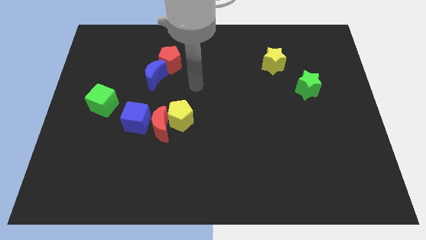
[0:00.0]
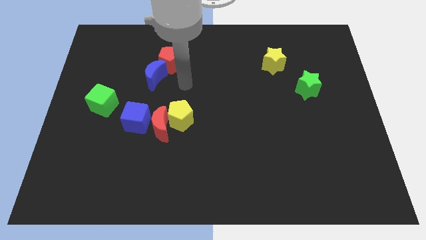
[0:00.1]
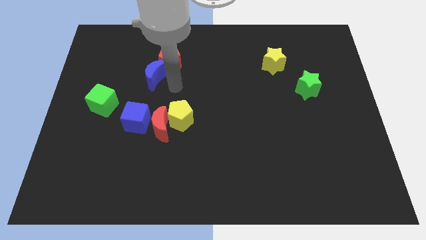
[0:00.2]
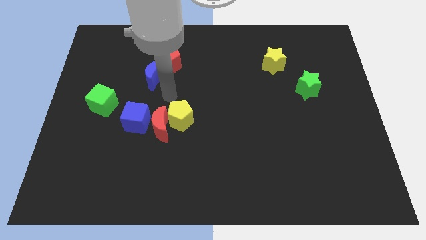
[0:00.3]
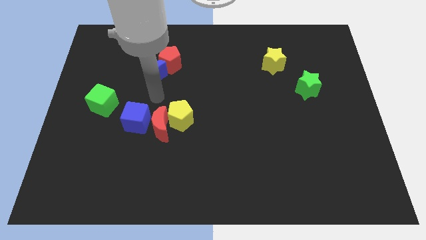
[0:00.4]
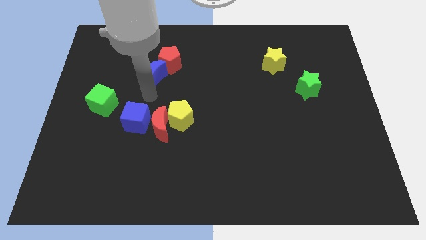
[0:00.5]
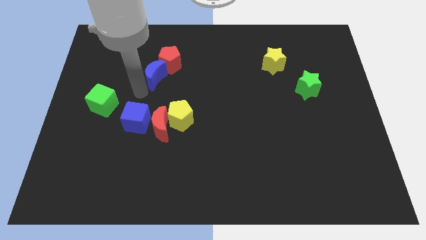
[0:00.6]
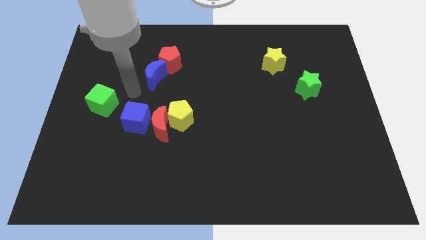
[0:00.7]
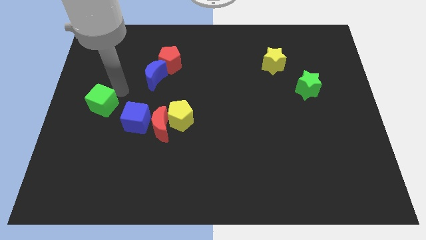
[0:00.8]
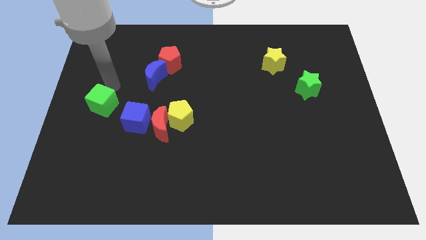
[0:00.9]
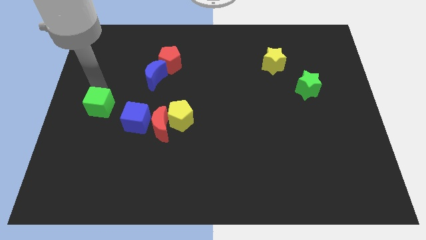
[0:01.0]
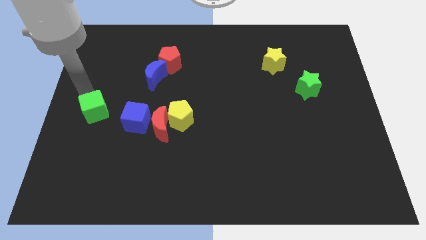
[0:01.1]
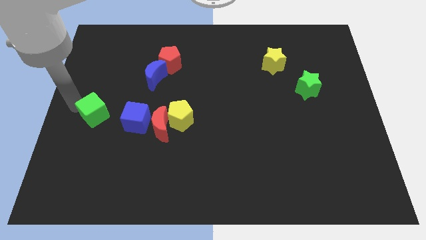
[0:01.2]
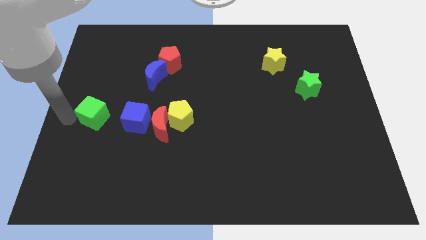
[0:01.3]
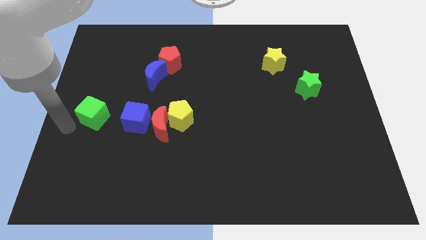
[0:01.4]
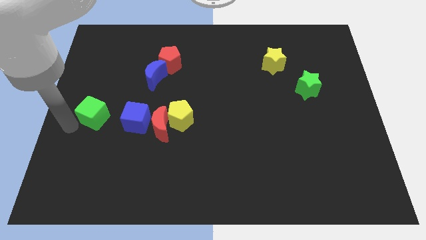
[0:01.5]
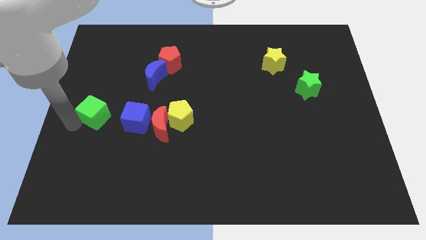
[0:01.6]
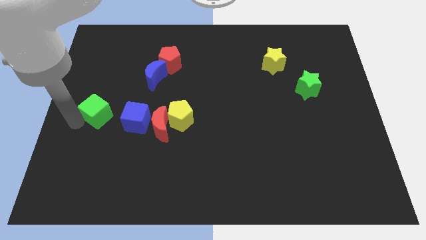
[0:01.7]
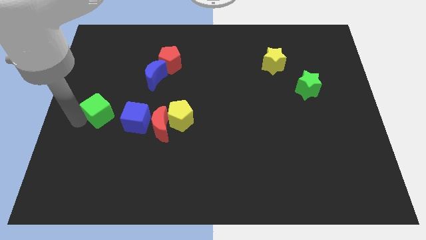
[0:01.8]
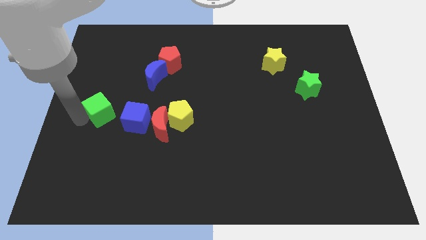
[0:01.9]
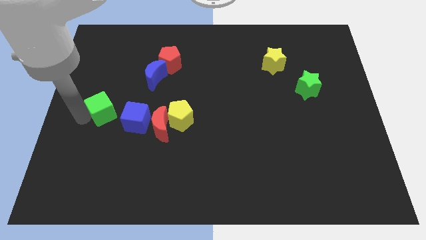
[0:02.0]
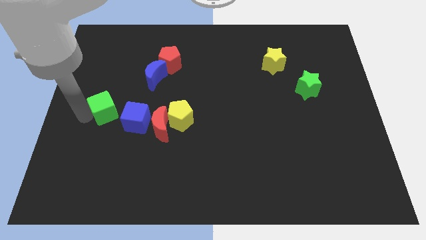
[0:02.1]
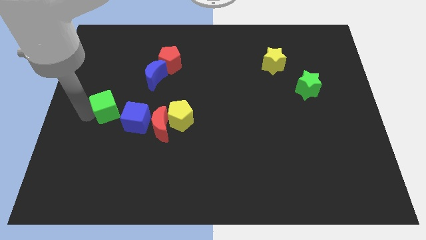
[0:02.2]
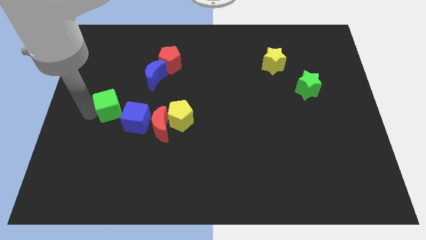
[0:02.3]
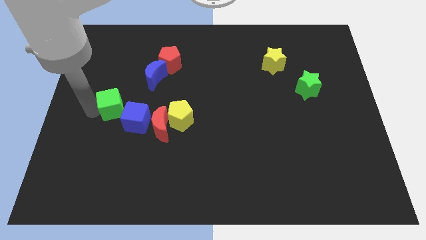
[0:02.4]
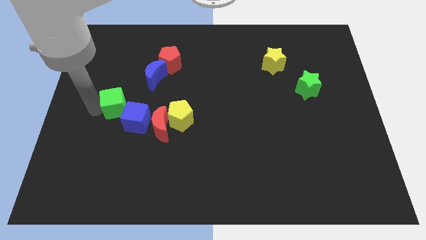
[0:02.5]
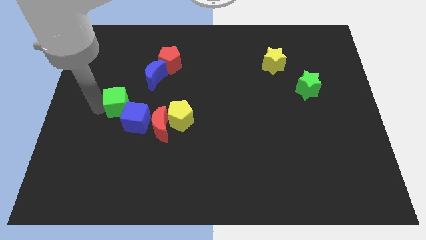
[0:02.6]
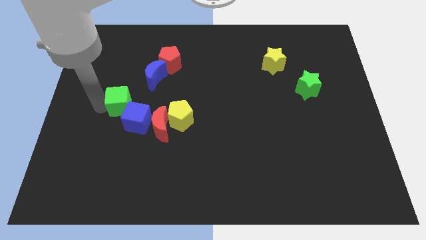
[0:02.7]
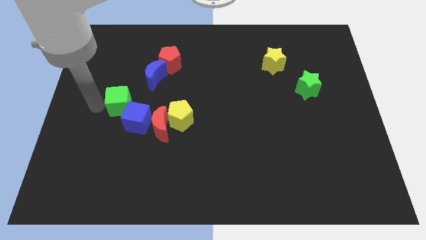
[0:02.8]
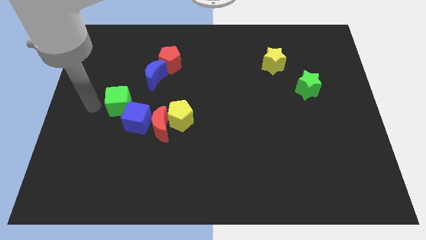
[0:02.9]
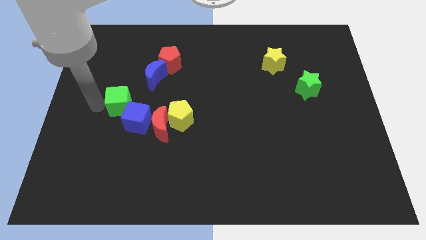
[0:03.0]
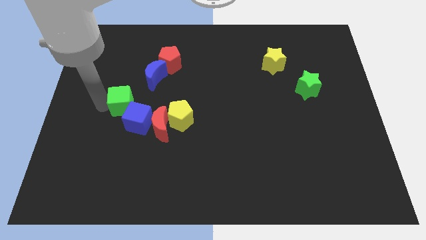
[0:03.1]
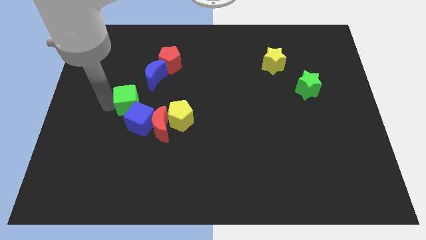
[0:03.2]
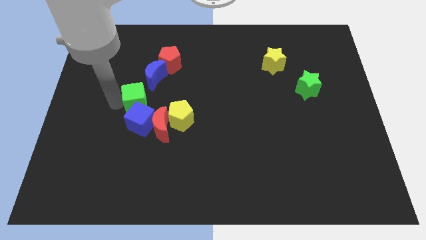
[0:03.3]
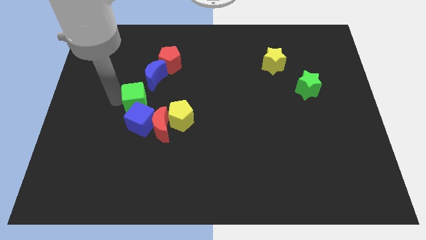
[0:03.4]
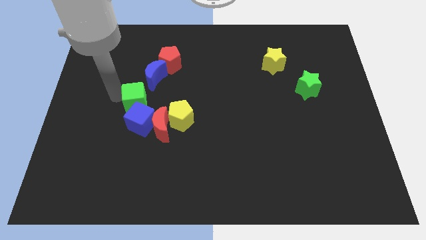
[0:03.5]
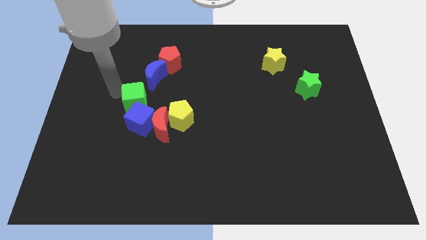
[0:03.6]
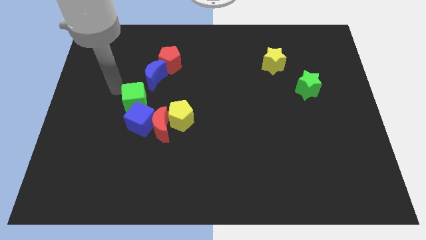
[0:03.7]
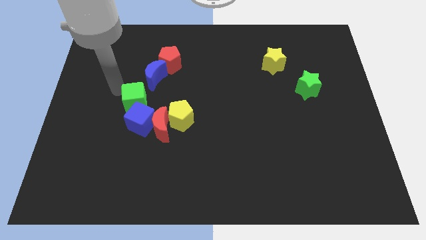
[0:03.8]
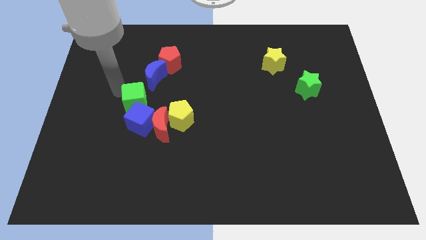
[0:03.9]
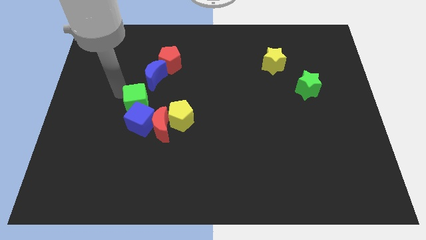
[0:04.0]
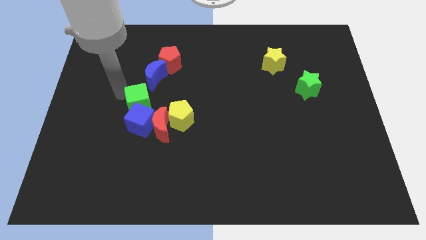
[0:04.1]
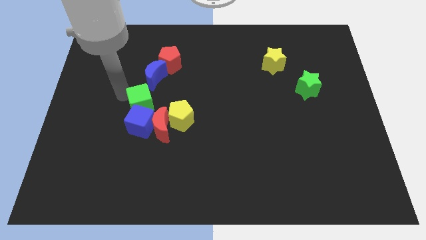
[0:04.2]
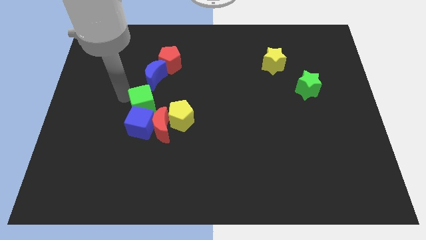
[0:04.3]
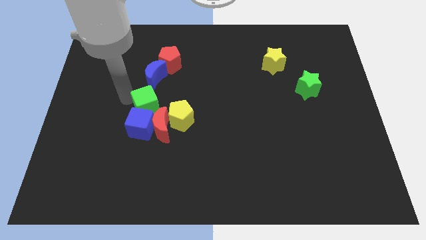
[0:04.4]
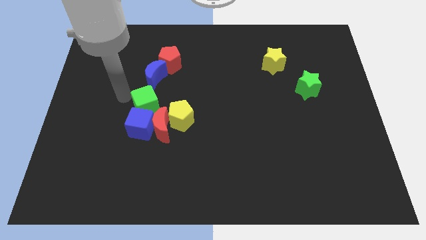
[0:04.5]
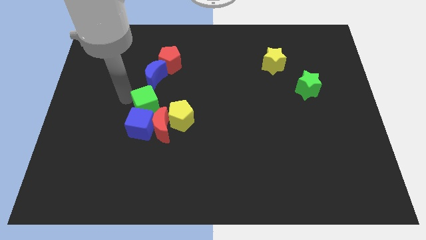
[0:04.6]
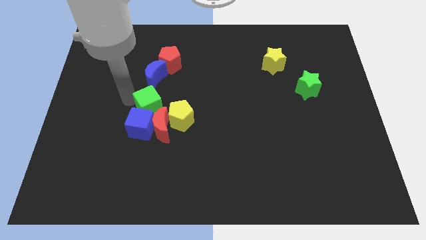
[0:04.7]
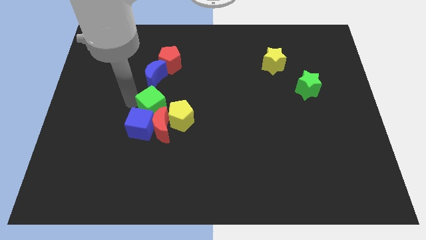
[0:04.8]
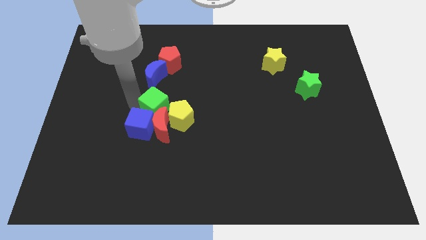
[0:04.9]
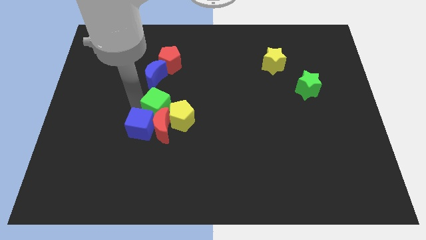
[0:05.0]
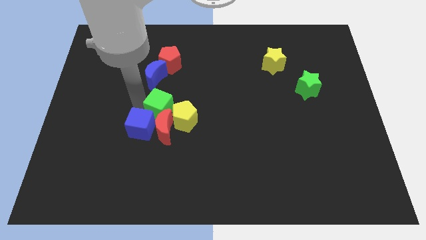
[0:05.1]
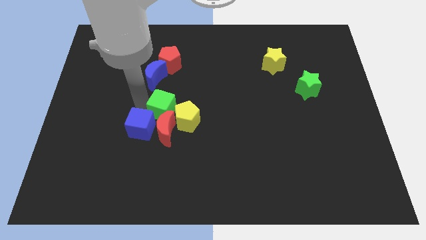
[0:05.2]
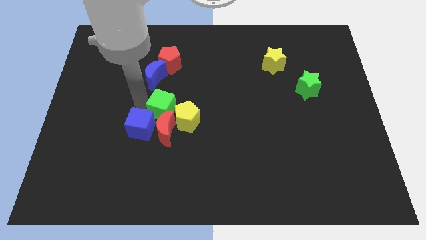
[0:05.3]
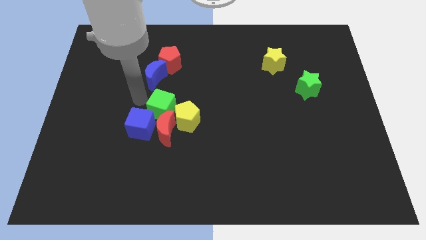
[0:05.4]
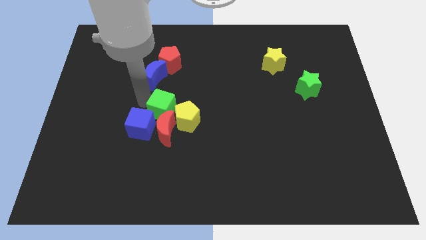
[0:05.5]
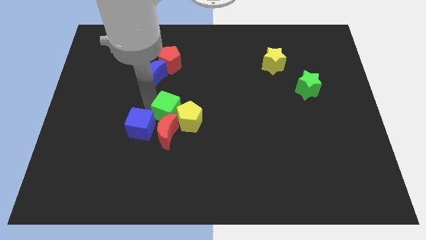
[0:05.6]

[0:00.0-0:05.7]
move the green cube towards the yellow pentagon

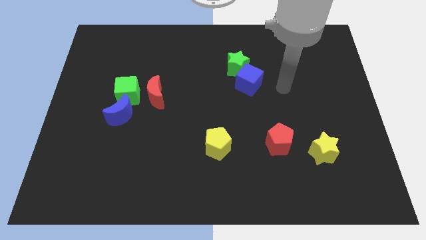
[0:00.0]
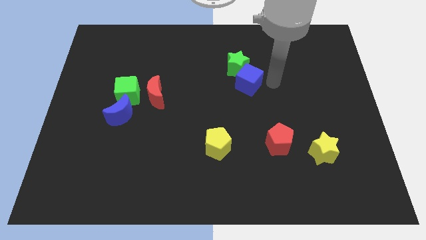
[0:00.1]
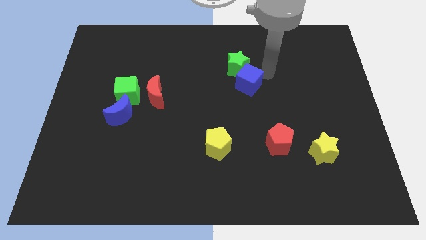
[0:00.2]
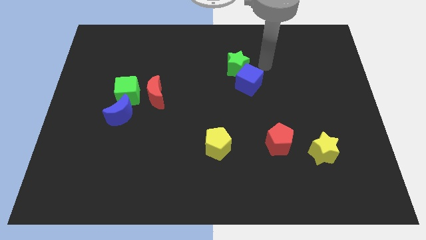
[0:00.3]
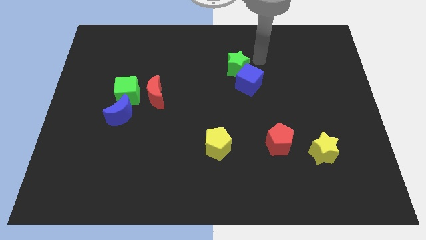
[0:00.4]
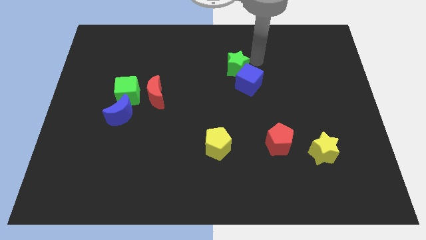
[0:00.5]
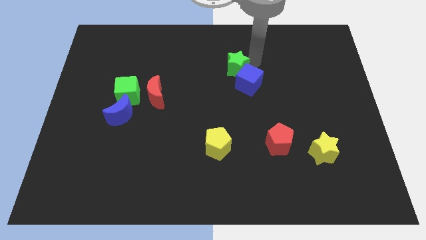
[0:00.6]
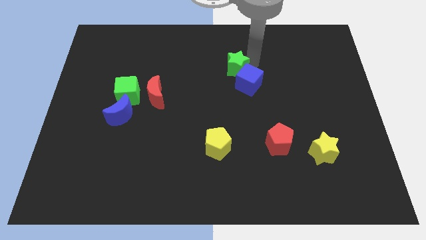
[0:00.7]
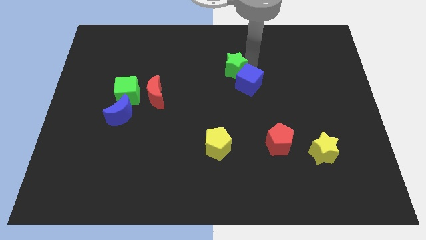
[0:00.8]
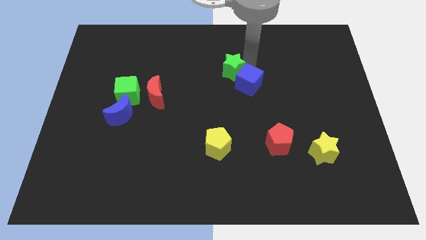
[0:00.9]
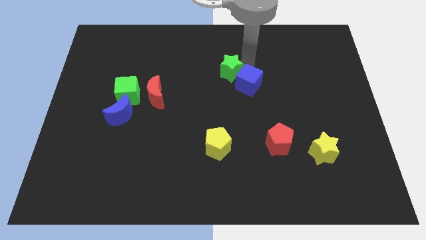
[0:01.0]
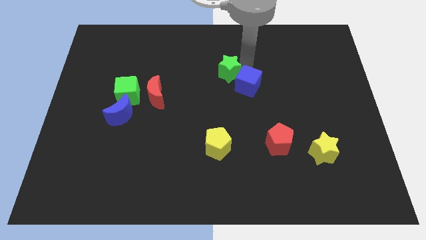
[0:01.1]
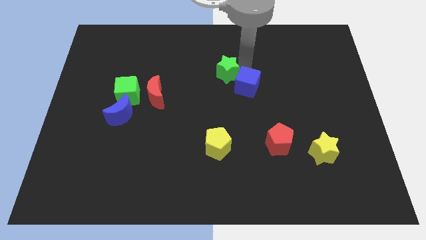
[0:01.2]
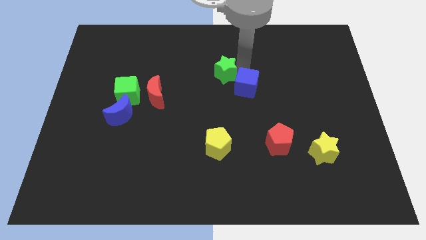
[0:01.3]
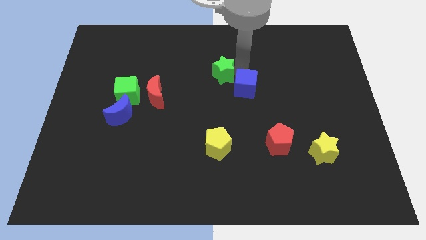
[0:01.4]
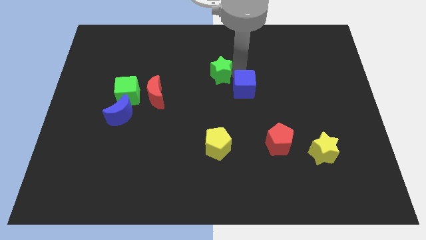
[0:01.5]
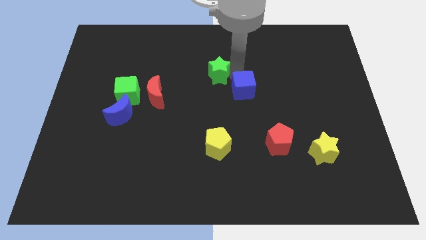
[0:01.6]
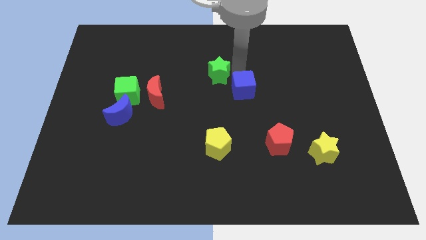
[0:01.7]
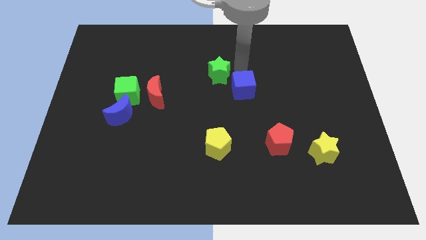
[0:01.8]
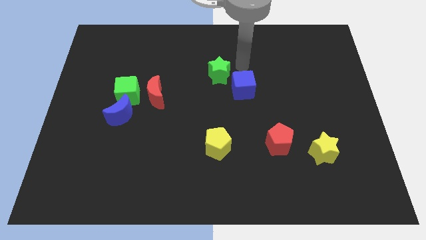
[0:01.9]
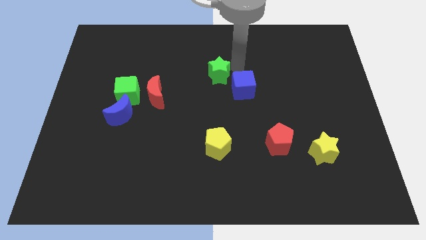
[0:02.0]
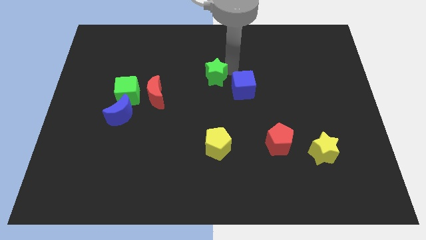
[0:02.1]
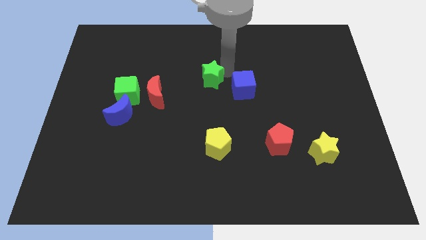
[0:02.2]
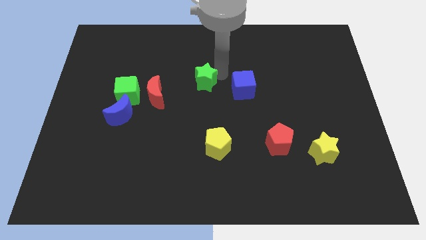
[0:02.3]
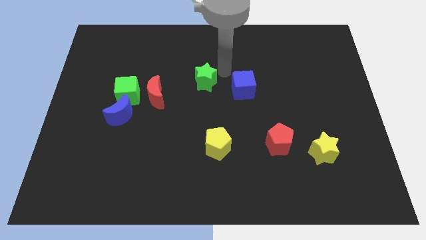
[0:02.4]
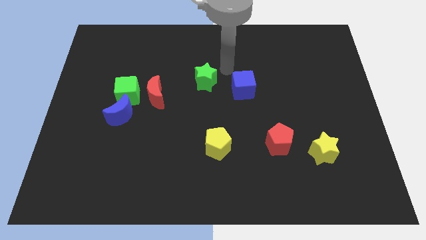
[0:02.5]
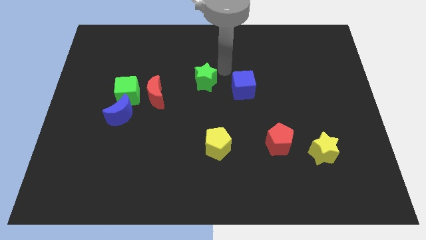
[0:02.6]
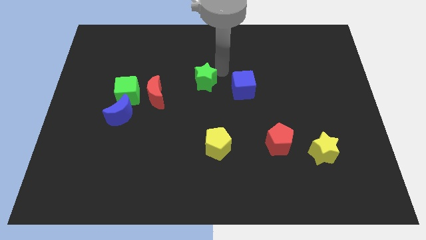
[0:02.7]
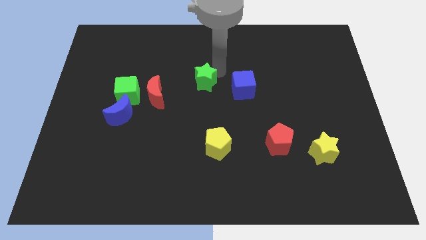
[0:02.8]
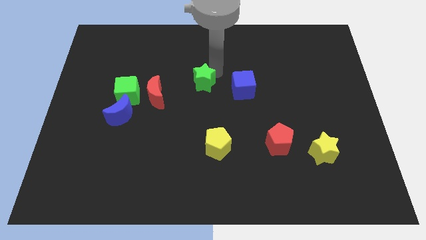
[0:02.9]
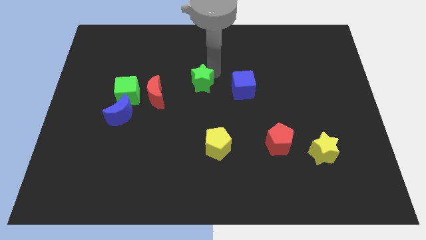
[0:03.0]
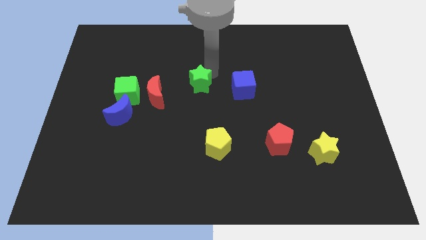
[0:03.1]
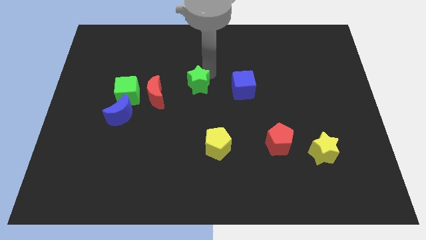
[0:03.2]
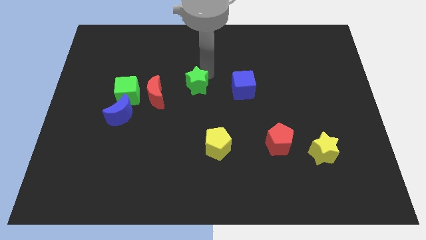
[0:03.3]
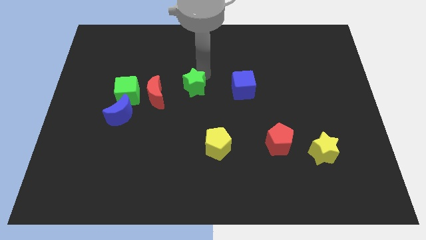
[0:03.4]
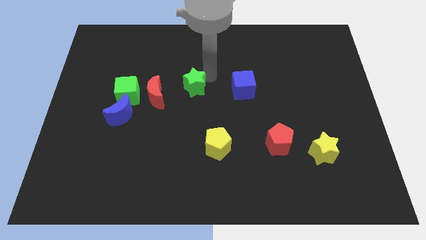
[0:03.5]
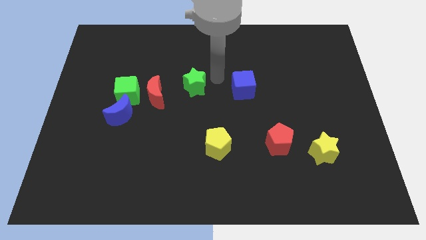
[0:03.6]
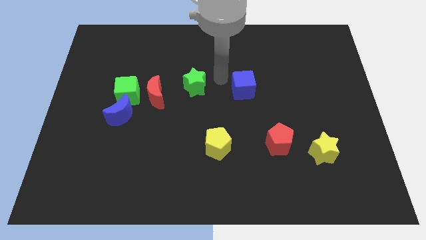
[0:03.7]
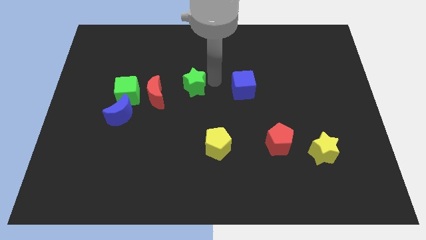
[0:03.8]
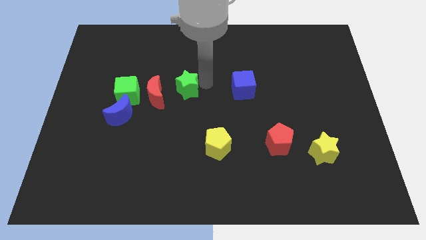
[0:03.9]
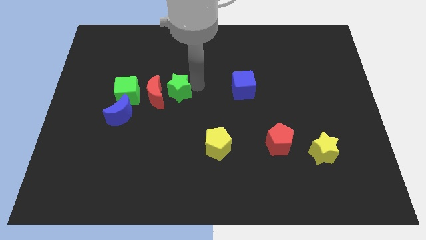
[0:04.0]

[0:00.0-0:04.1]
put the green star towards the red moon
